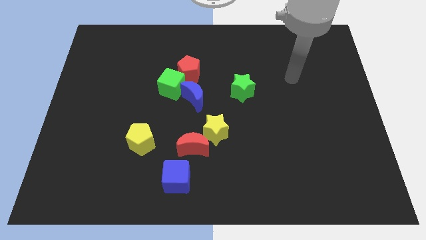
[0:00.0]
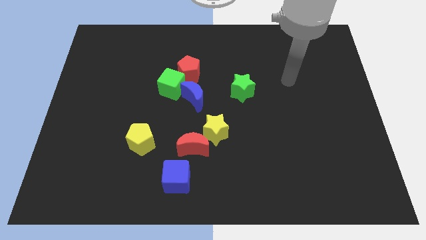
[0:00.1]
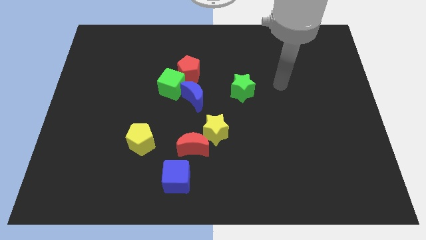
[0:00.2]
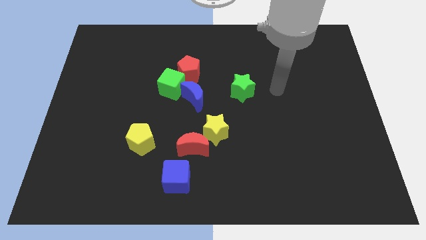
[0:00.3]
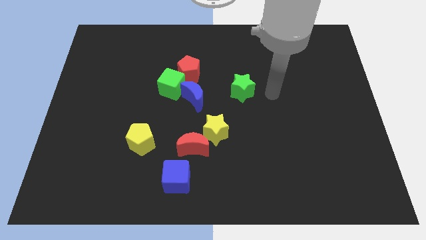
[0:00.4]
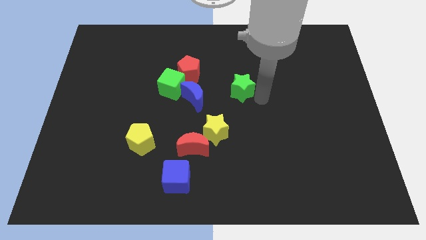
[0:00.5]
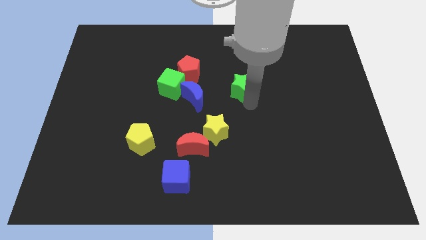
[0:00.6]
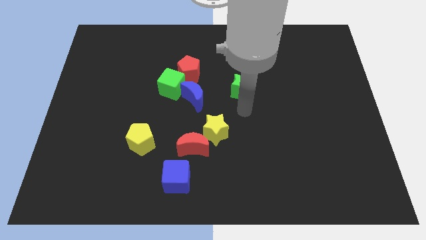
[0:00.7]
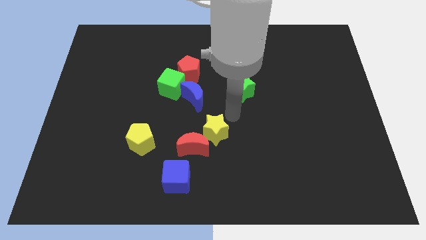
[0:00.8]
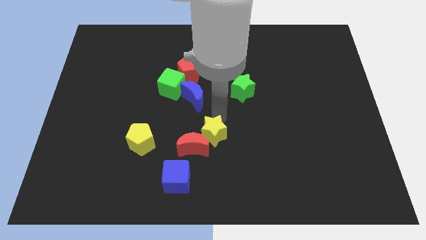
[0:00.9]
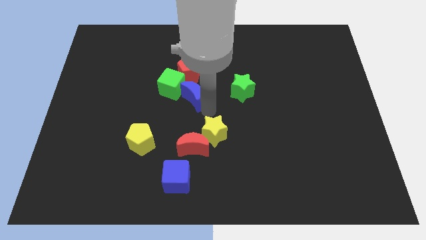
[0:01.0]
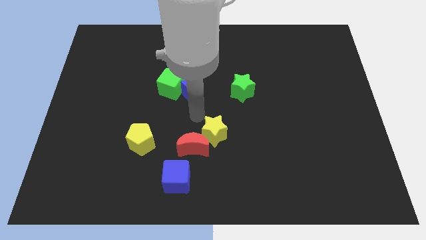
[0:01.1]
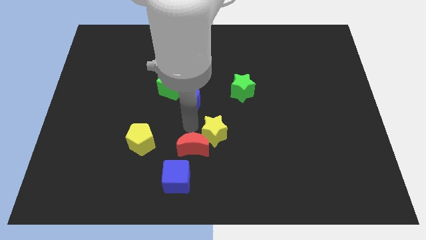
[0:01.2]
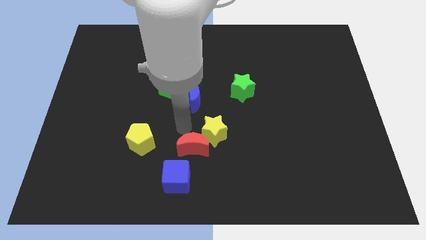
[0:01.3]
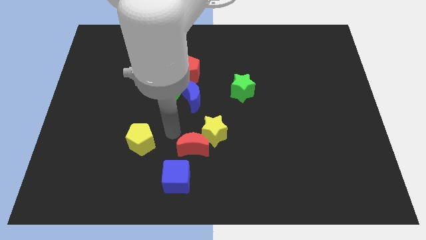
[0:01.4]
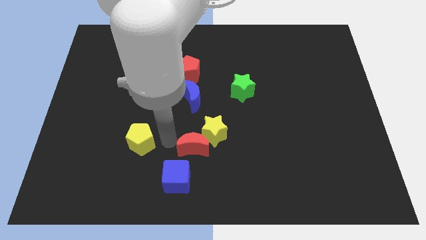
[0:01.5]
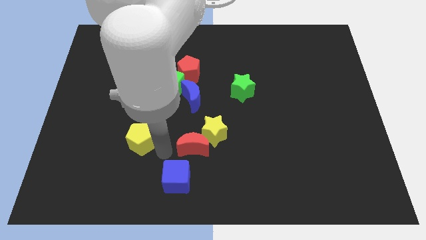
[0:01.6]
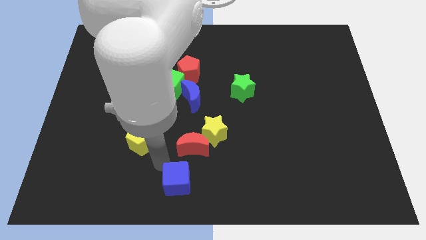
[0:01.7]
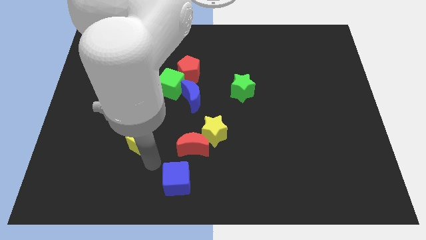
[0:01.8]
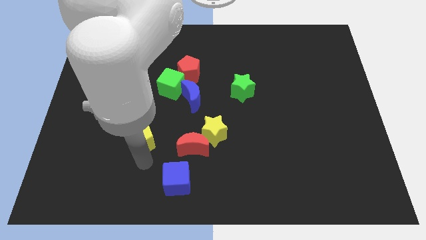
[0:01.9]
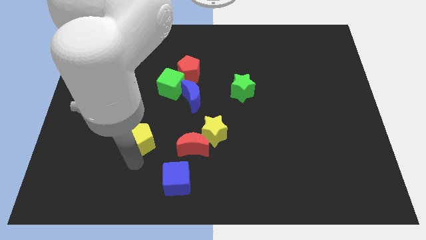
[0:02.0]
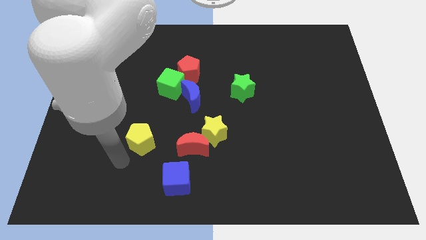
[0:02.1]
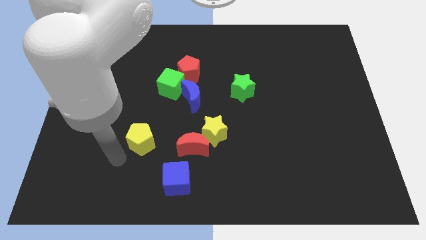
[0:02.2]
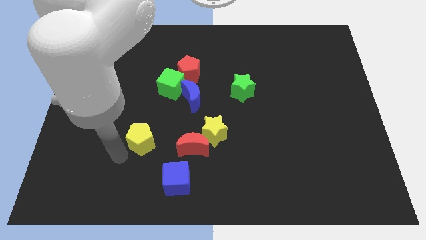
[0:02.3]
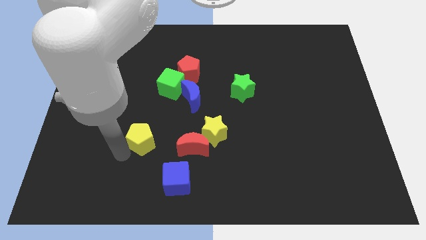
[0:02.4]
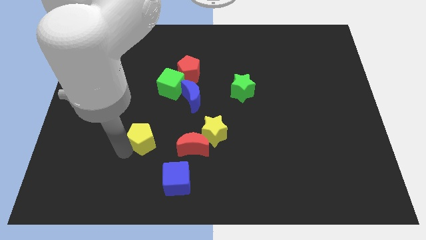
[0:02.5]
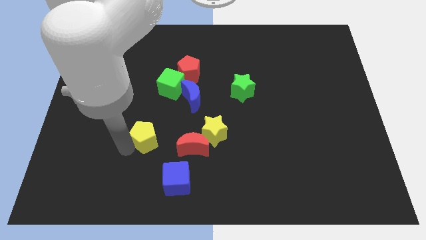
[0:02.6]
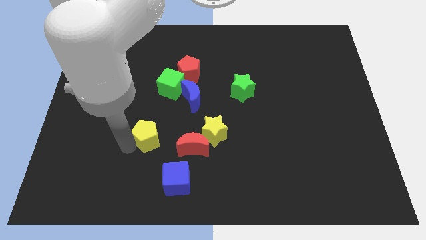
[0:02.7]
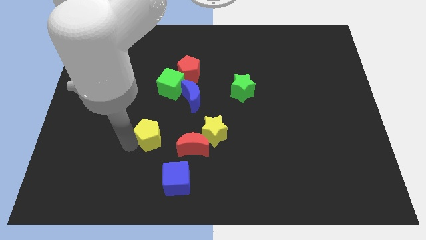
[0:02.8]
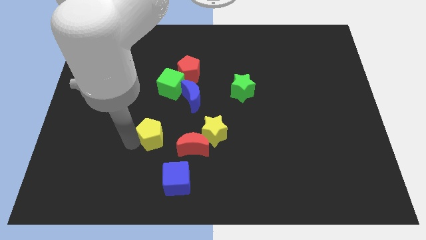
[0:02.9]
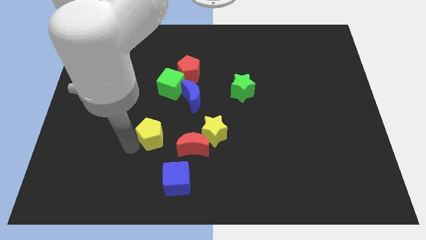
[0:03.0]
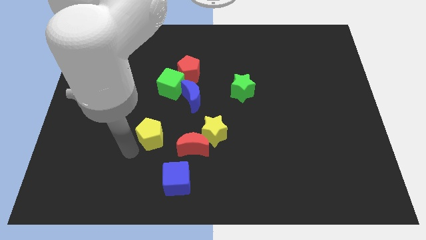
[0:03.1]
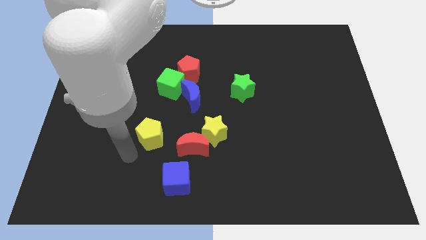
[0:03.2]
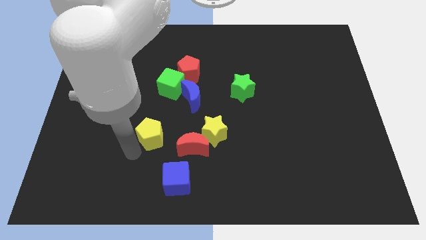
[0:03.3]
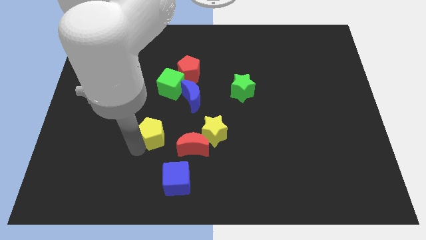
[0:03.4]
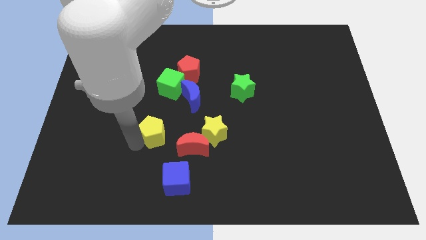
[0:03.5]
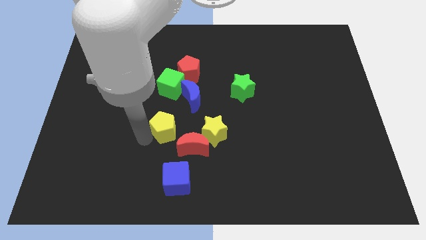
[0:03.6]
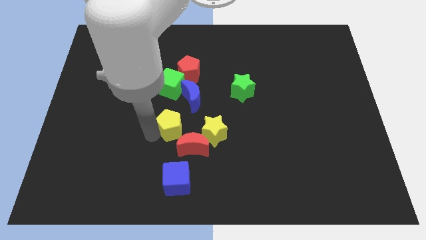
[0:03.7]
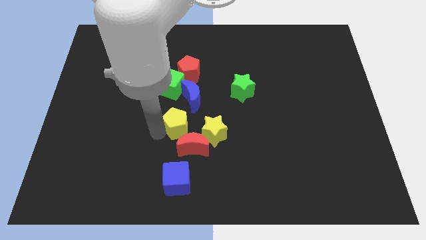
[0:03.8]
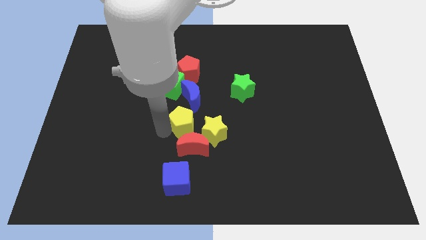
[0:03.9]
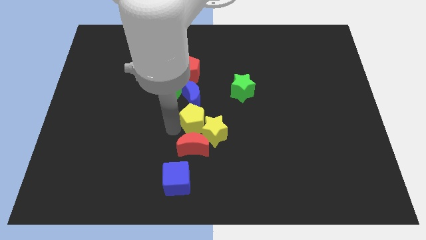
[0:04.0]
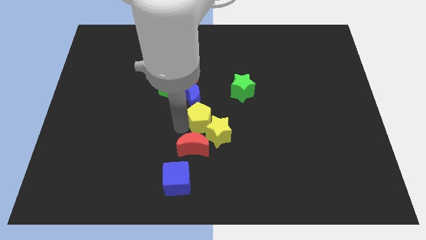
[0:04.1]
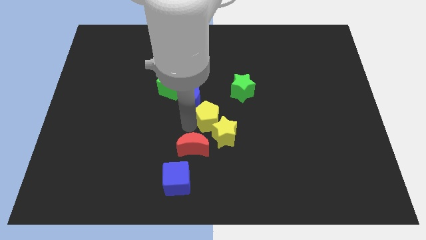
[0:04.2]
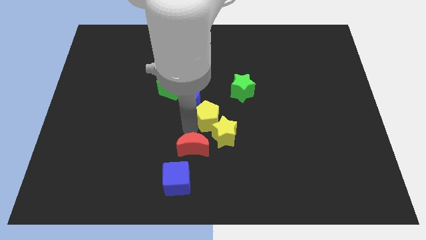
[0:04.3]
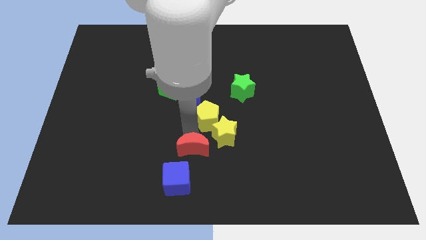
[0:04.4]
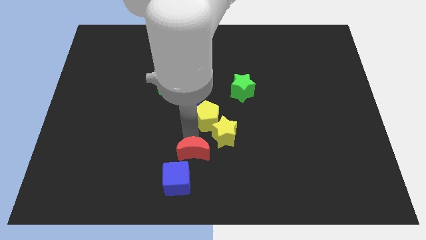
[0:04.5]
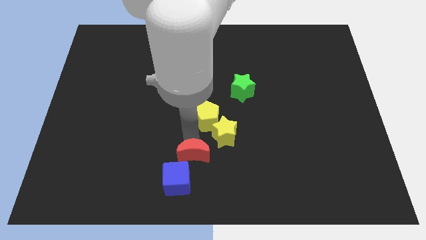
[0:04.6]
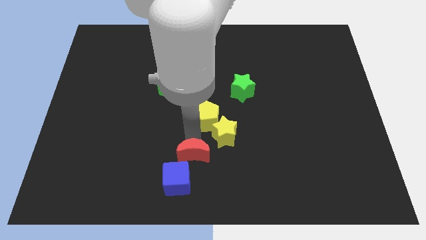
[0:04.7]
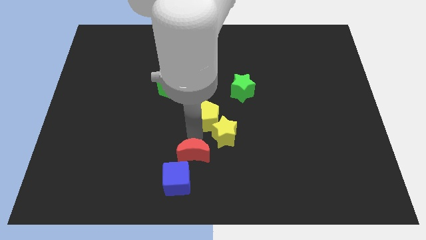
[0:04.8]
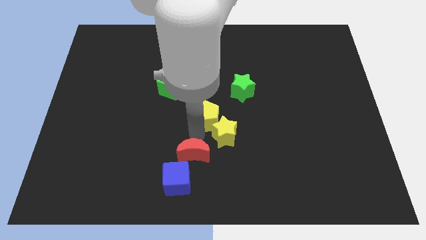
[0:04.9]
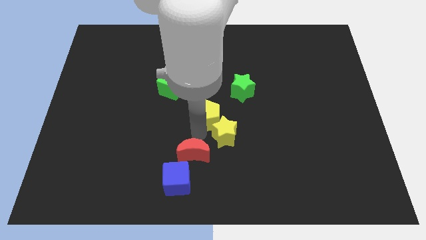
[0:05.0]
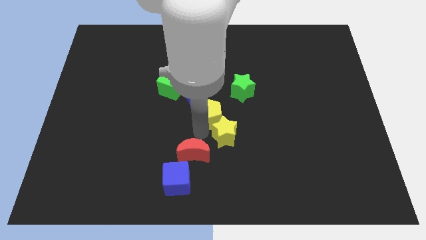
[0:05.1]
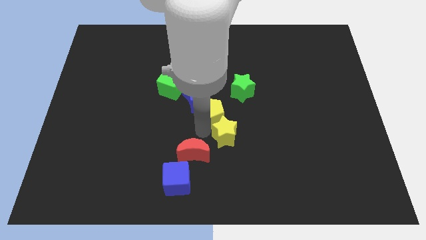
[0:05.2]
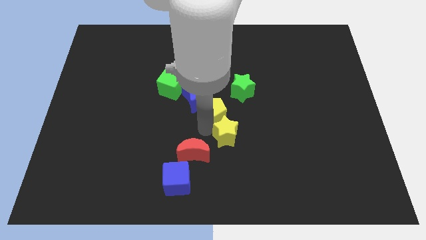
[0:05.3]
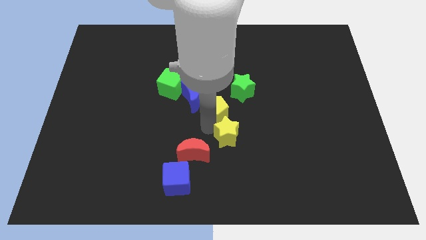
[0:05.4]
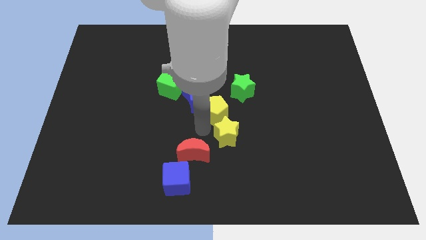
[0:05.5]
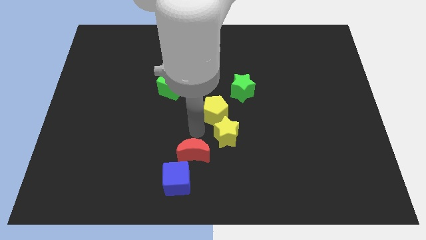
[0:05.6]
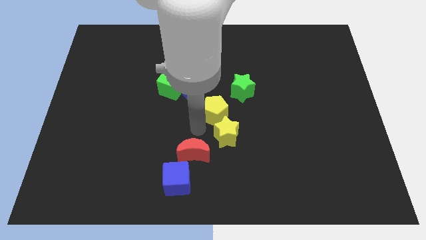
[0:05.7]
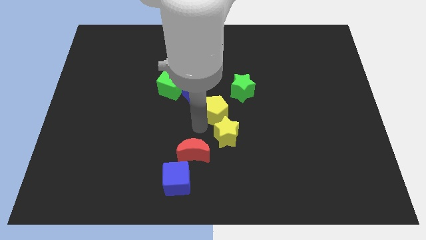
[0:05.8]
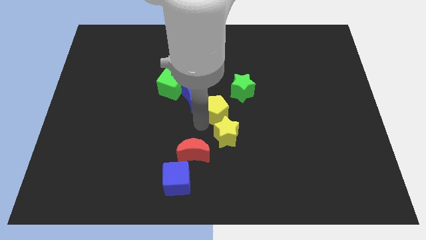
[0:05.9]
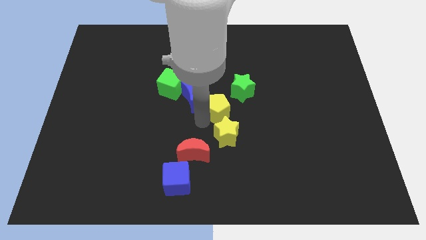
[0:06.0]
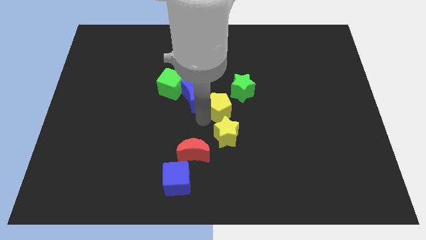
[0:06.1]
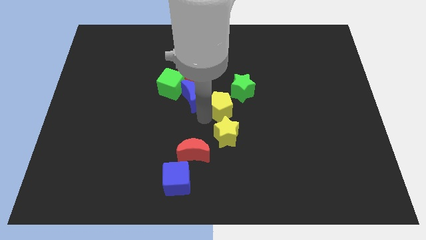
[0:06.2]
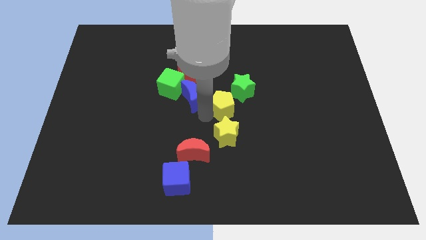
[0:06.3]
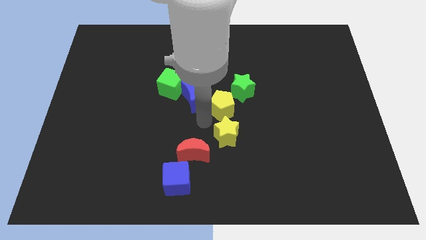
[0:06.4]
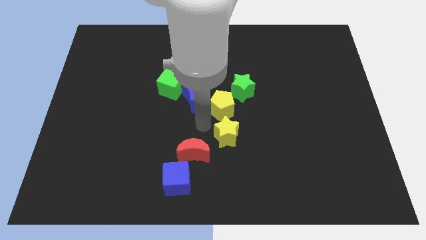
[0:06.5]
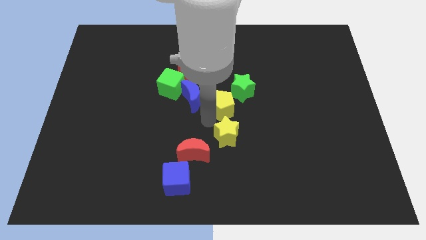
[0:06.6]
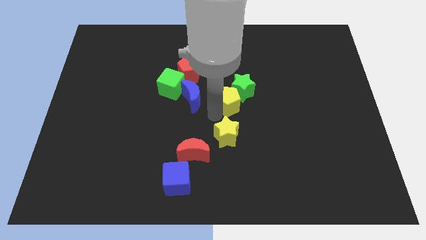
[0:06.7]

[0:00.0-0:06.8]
put the yellow pentagon towards the green star
